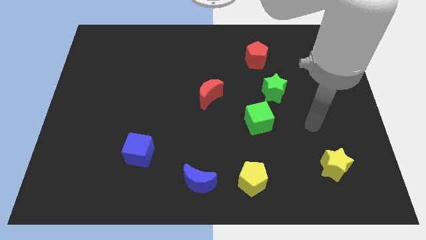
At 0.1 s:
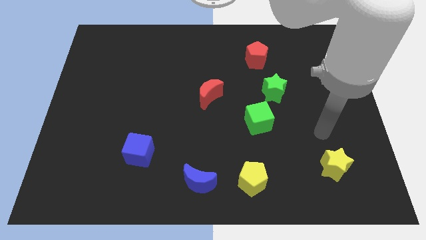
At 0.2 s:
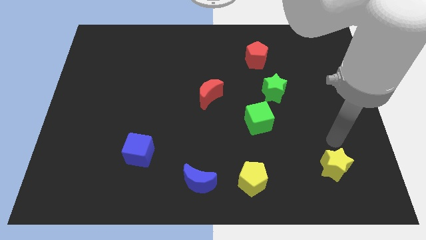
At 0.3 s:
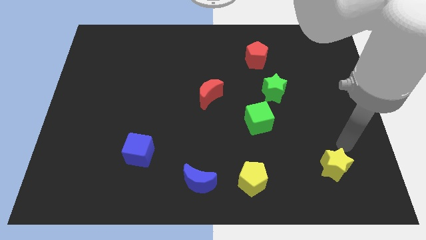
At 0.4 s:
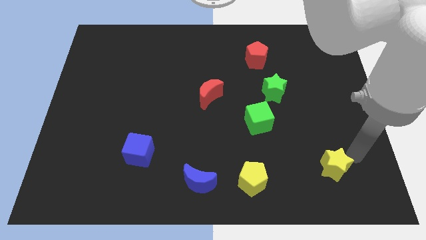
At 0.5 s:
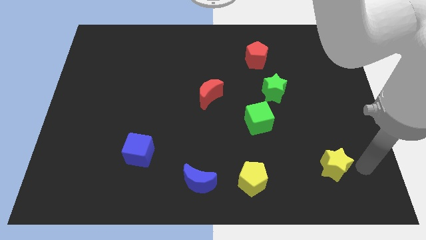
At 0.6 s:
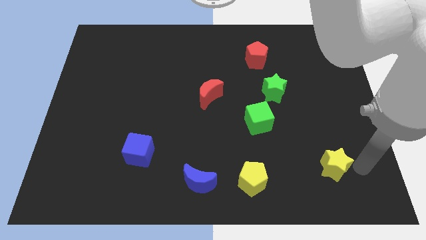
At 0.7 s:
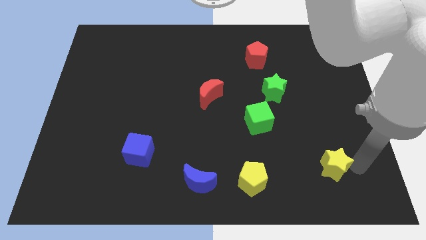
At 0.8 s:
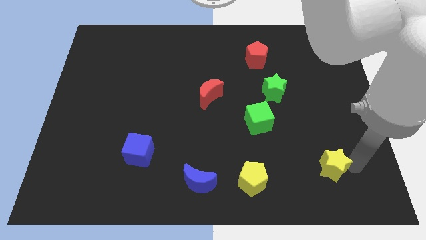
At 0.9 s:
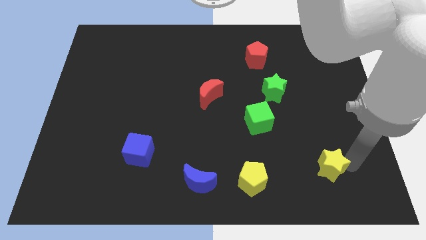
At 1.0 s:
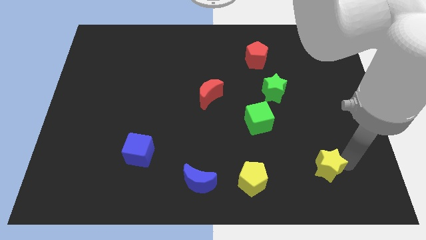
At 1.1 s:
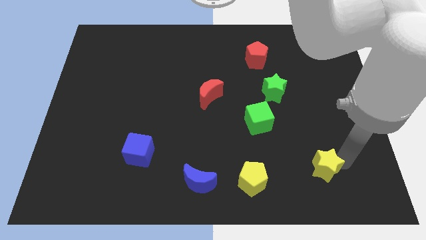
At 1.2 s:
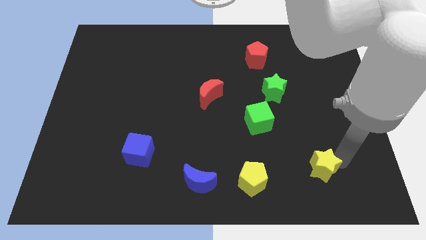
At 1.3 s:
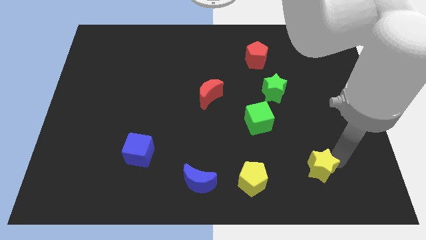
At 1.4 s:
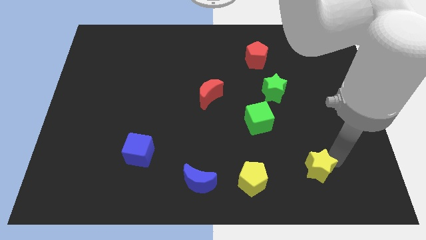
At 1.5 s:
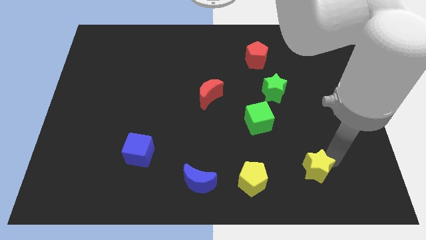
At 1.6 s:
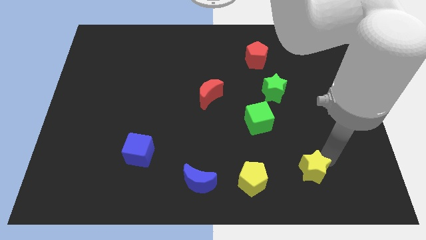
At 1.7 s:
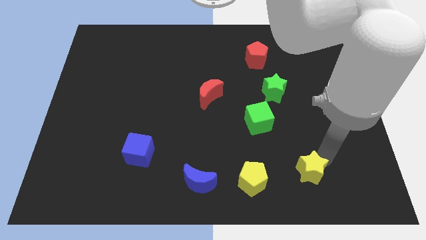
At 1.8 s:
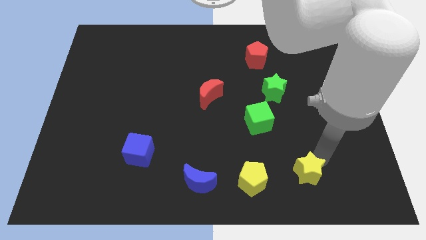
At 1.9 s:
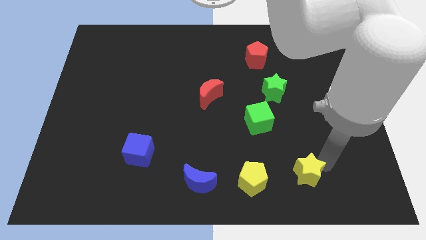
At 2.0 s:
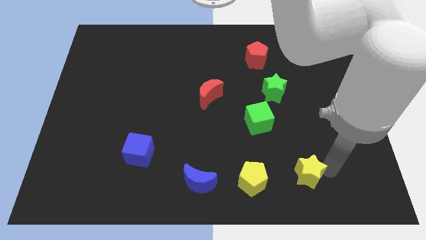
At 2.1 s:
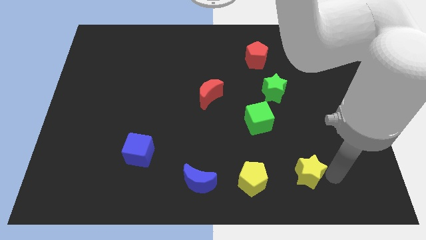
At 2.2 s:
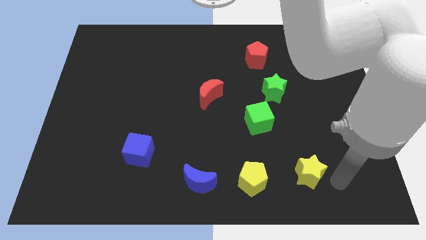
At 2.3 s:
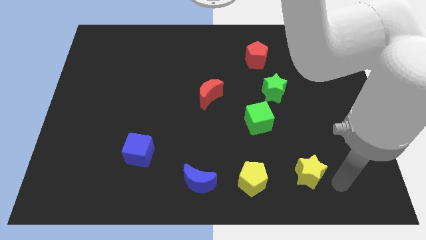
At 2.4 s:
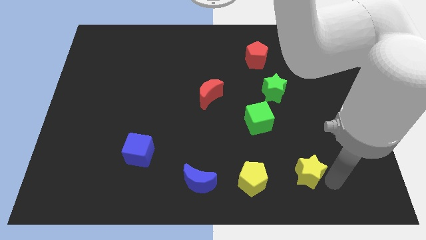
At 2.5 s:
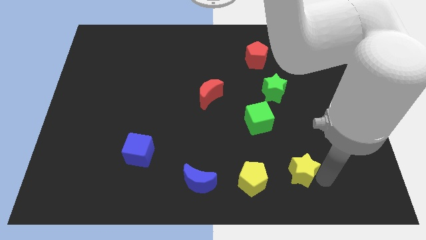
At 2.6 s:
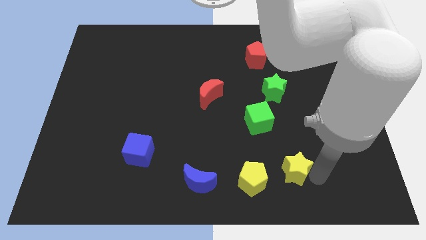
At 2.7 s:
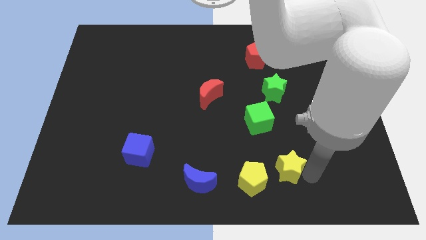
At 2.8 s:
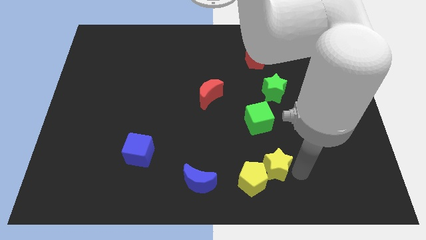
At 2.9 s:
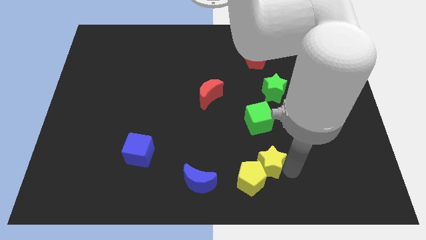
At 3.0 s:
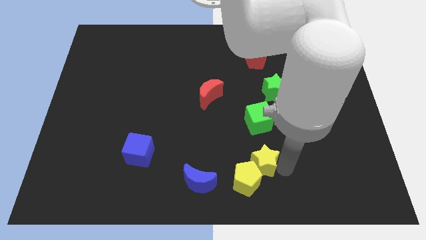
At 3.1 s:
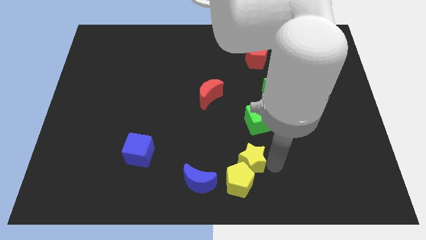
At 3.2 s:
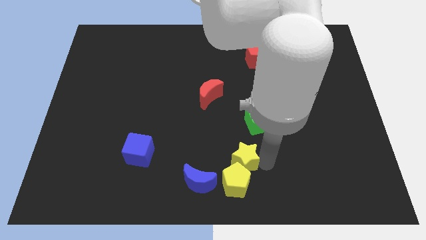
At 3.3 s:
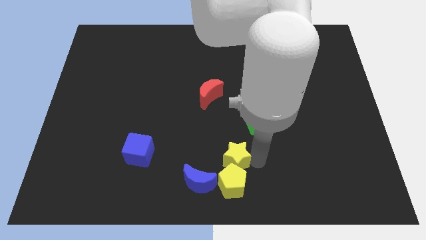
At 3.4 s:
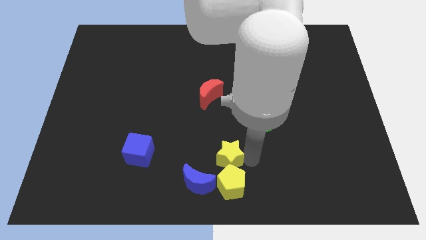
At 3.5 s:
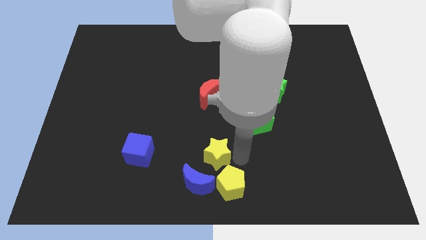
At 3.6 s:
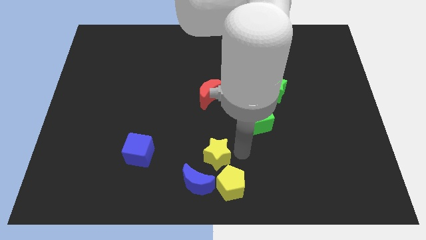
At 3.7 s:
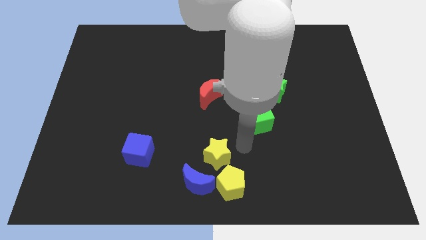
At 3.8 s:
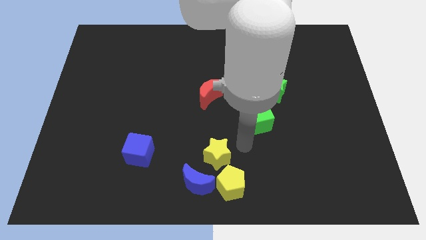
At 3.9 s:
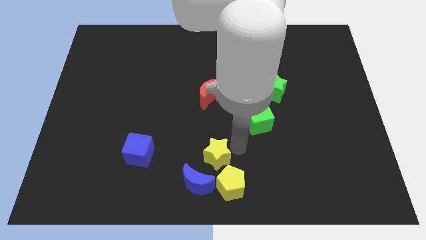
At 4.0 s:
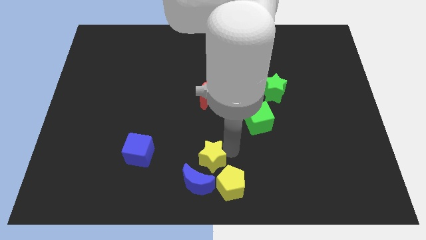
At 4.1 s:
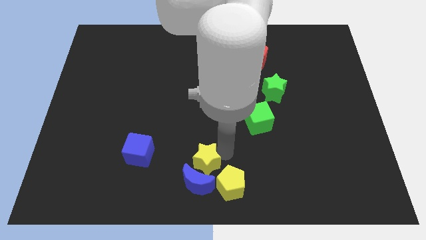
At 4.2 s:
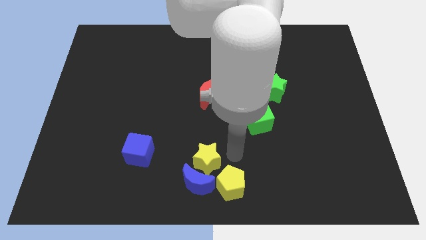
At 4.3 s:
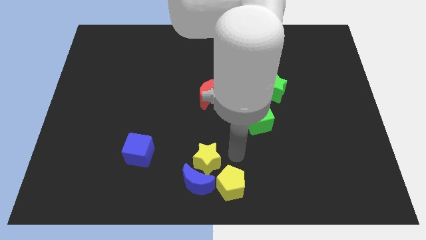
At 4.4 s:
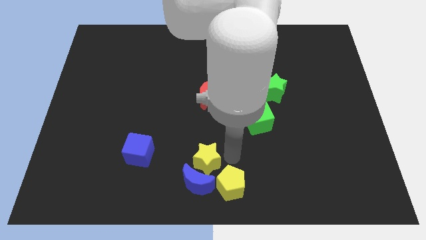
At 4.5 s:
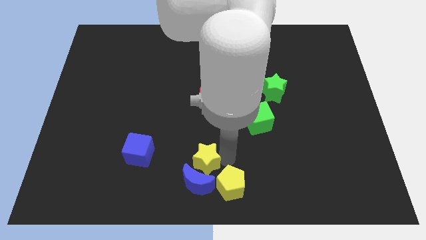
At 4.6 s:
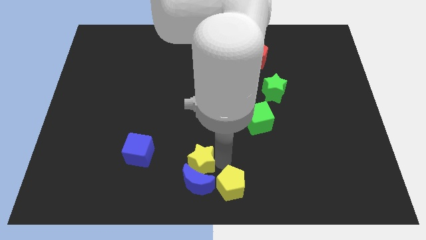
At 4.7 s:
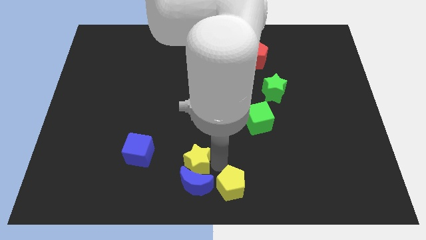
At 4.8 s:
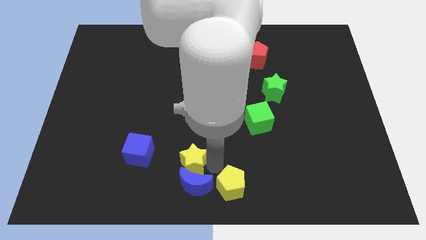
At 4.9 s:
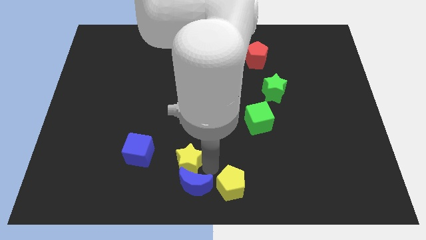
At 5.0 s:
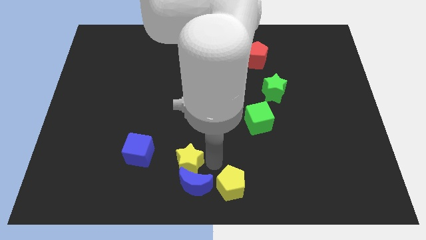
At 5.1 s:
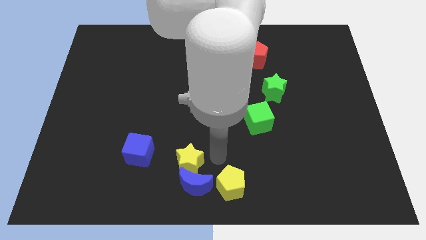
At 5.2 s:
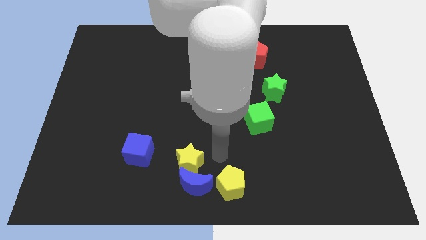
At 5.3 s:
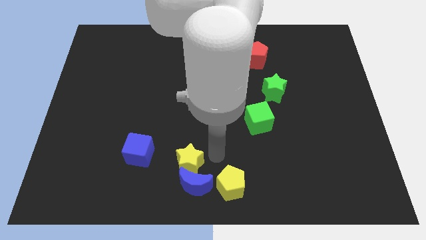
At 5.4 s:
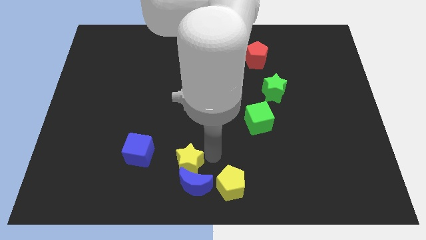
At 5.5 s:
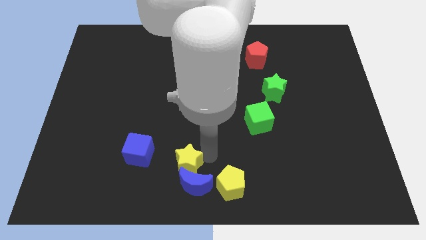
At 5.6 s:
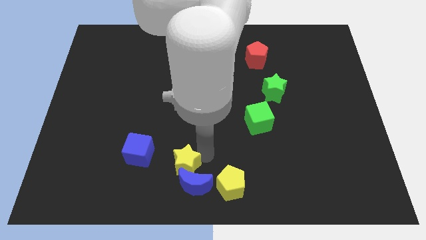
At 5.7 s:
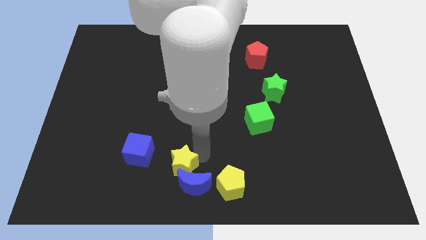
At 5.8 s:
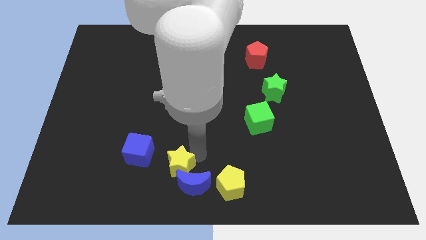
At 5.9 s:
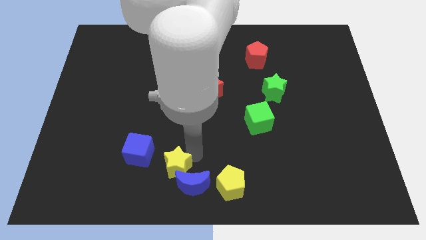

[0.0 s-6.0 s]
slide the yellow star to the left side of the blue moon

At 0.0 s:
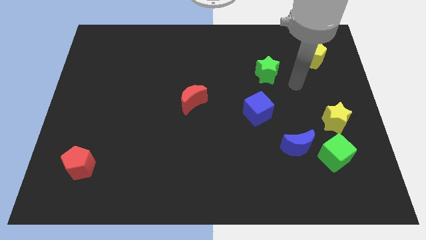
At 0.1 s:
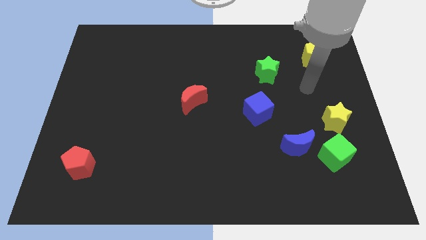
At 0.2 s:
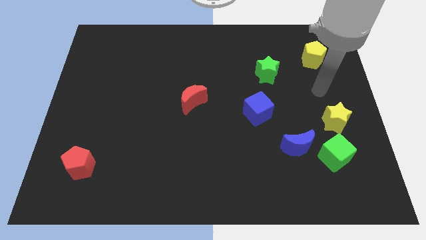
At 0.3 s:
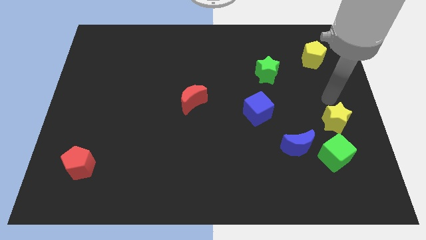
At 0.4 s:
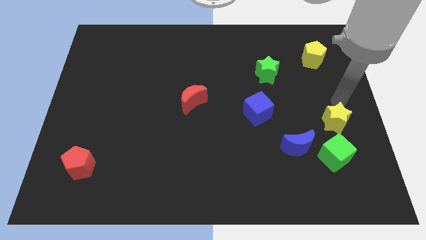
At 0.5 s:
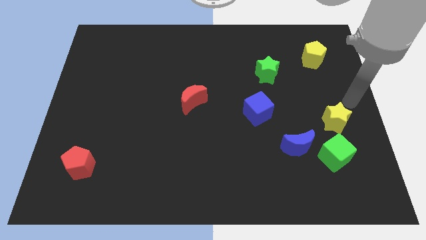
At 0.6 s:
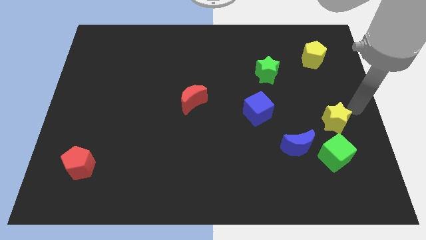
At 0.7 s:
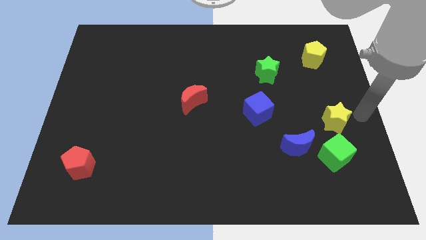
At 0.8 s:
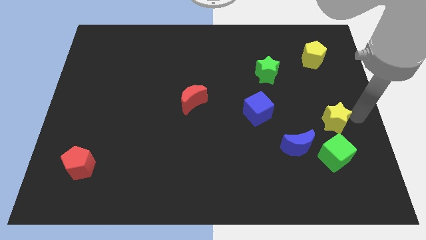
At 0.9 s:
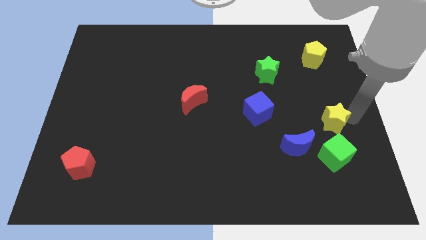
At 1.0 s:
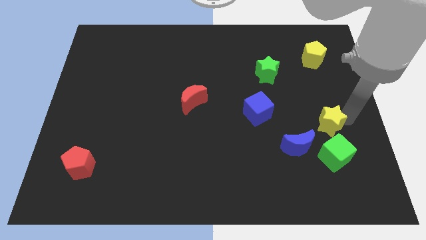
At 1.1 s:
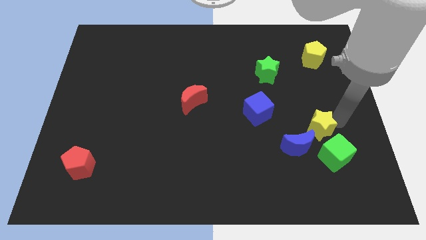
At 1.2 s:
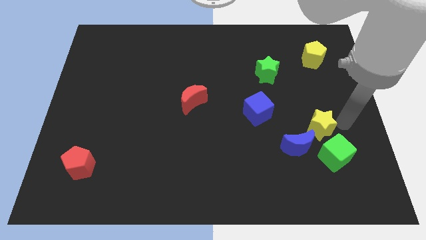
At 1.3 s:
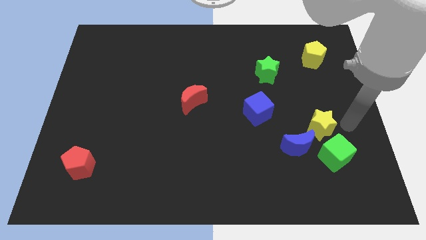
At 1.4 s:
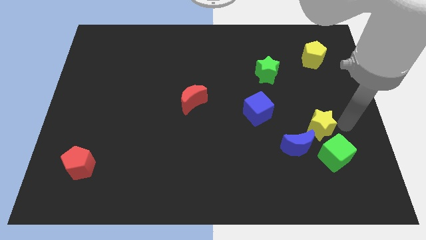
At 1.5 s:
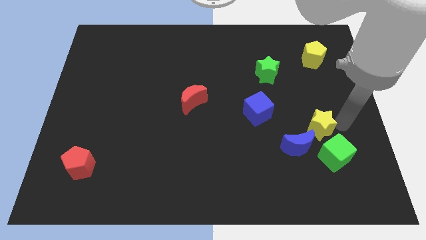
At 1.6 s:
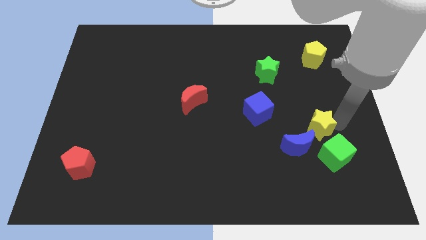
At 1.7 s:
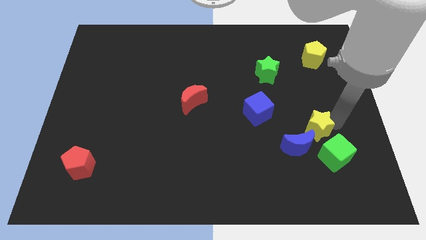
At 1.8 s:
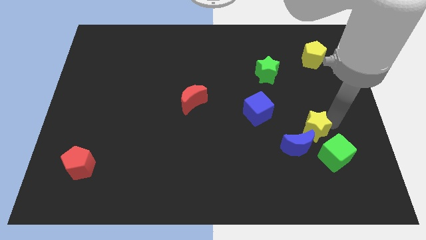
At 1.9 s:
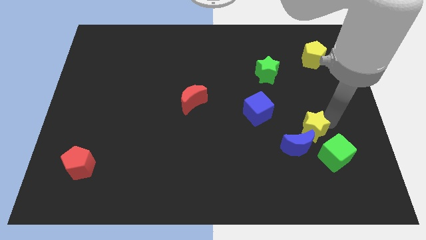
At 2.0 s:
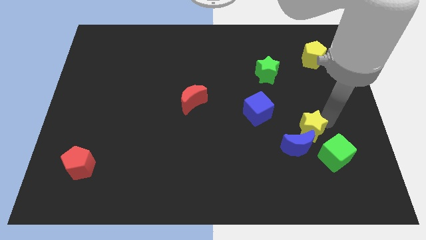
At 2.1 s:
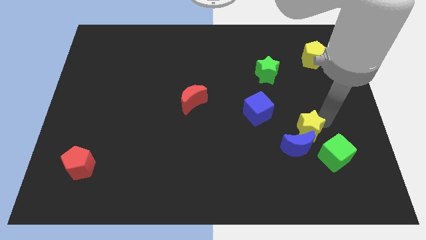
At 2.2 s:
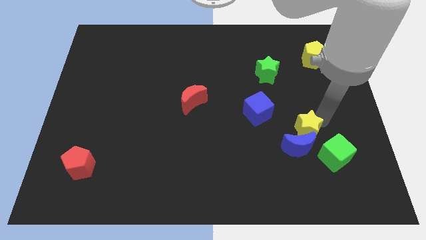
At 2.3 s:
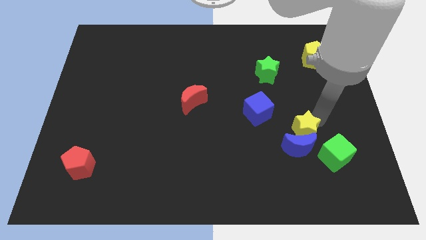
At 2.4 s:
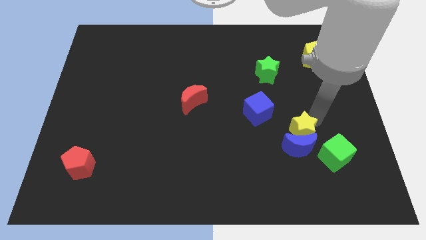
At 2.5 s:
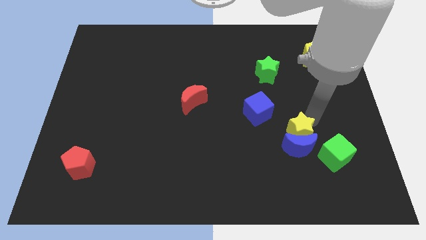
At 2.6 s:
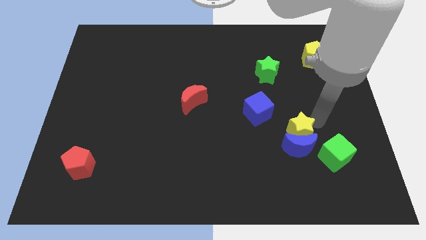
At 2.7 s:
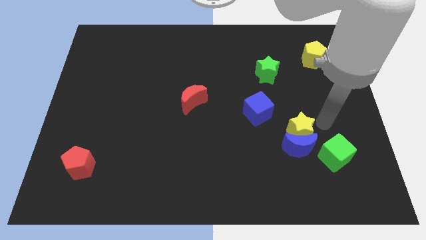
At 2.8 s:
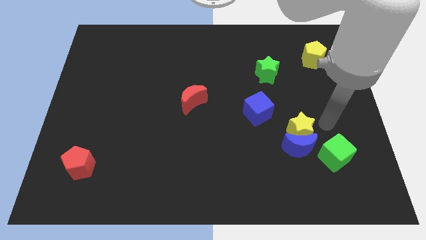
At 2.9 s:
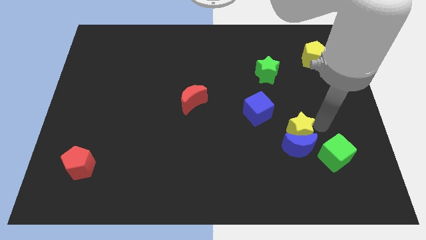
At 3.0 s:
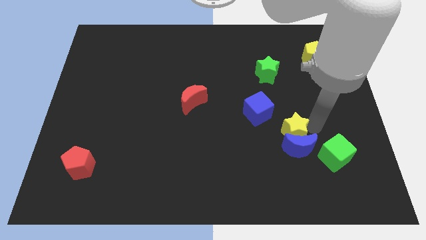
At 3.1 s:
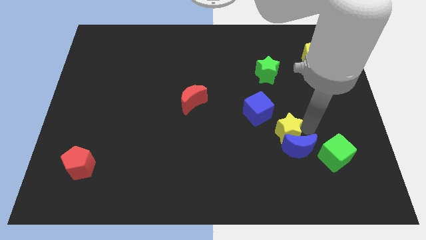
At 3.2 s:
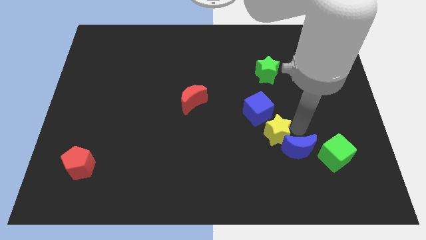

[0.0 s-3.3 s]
put the yellow star to the left of the blue moon
